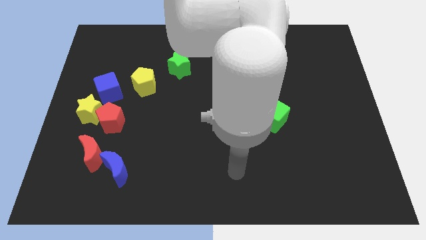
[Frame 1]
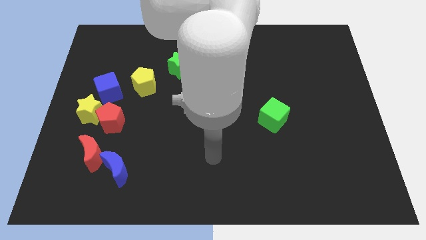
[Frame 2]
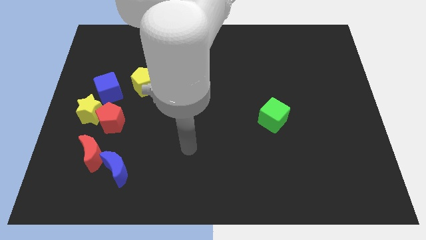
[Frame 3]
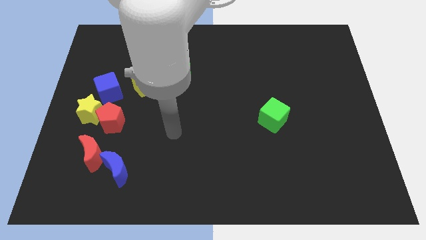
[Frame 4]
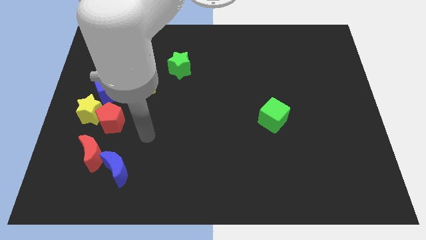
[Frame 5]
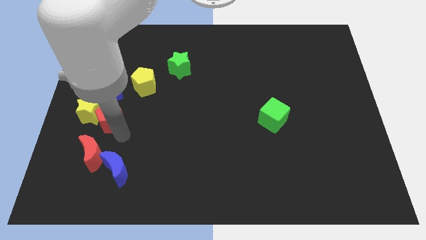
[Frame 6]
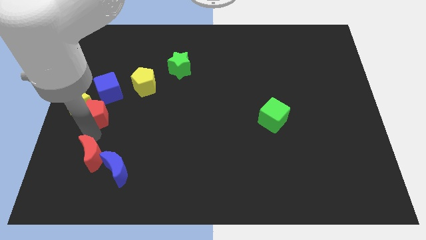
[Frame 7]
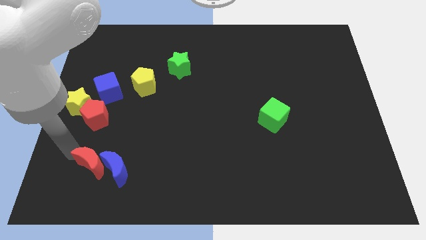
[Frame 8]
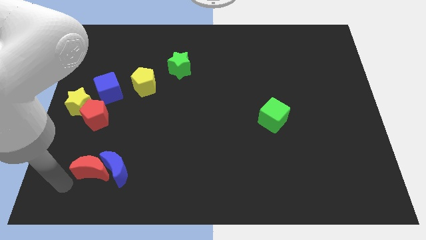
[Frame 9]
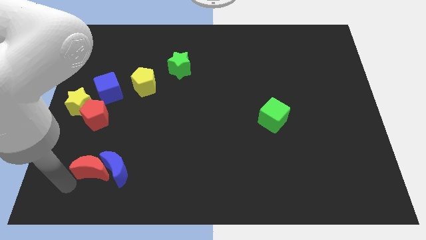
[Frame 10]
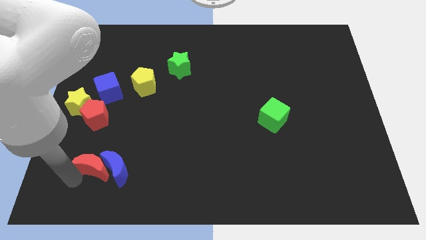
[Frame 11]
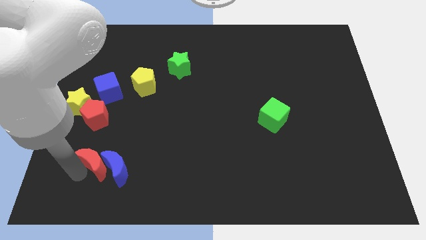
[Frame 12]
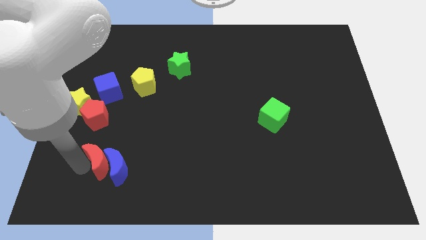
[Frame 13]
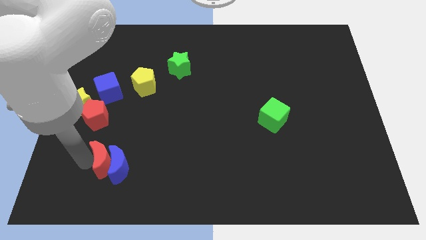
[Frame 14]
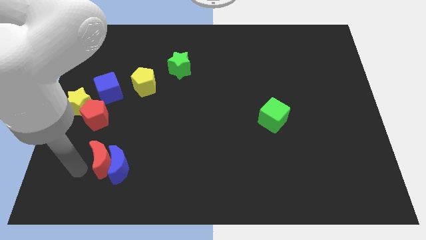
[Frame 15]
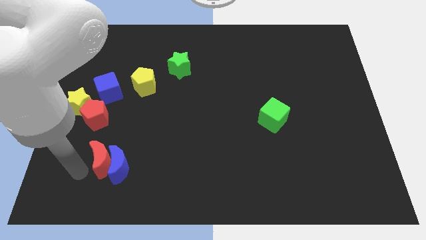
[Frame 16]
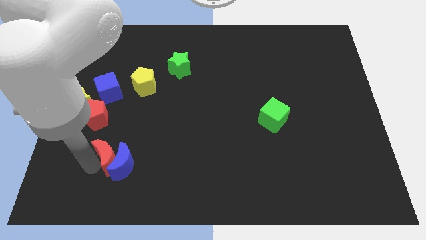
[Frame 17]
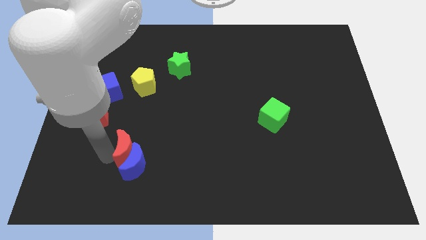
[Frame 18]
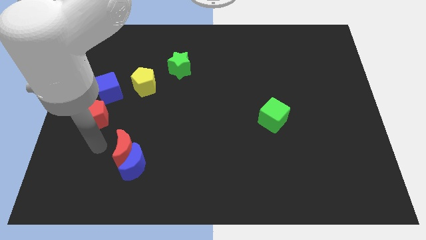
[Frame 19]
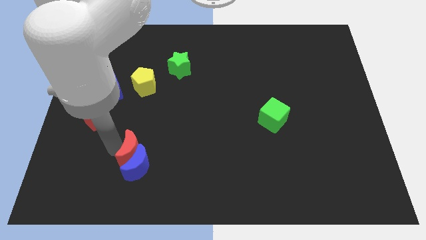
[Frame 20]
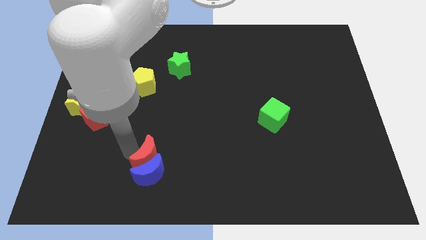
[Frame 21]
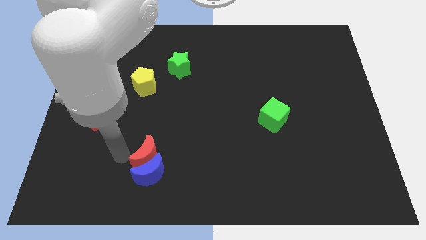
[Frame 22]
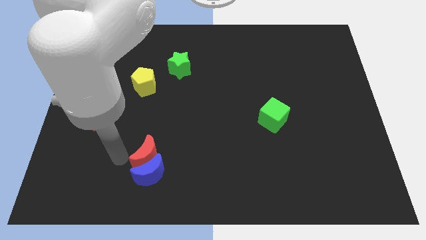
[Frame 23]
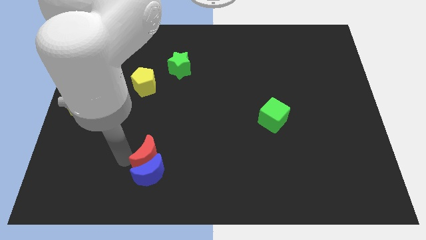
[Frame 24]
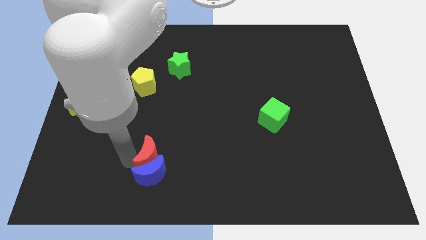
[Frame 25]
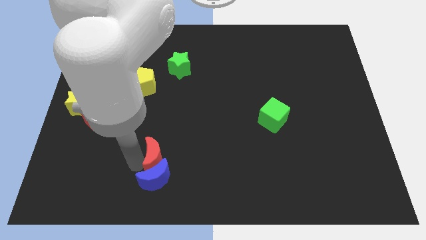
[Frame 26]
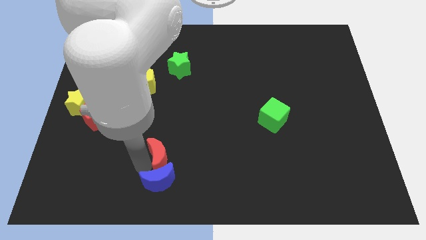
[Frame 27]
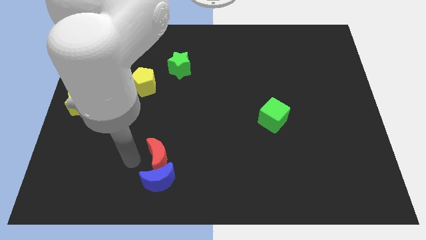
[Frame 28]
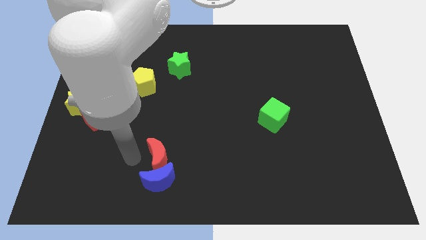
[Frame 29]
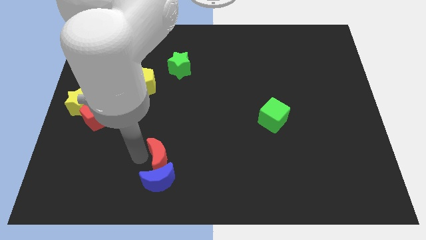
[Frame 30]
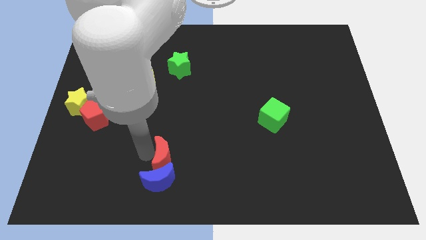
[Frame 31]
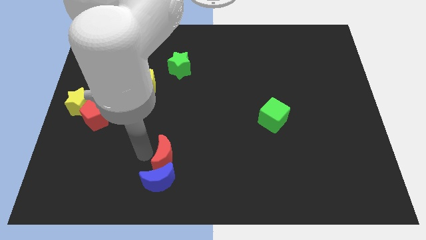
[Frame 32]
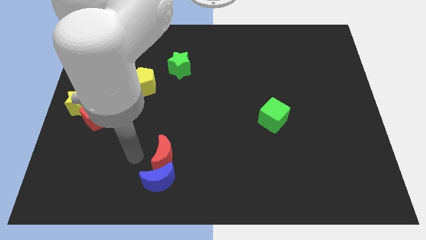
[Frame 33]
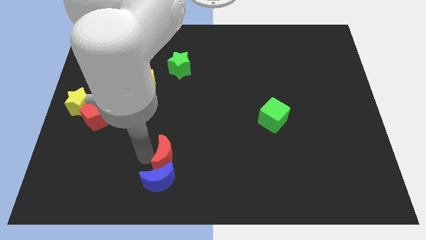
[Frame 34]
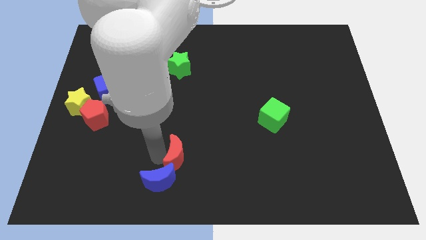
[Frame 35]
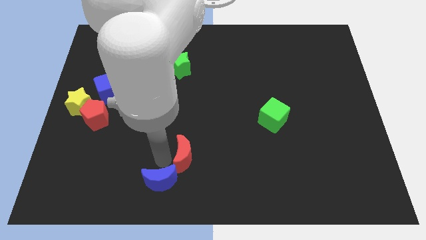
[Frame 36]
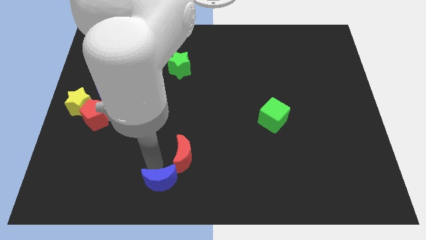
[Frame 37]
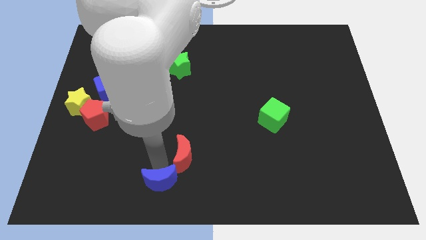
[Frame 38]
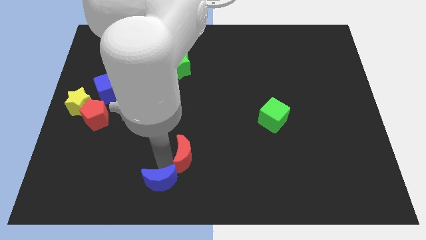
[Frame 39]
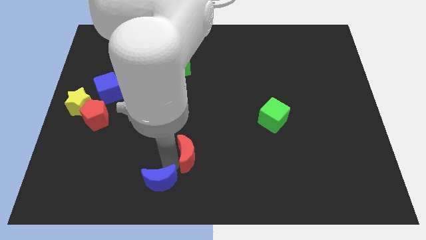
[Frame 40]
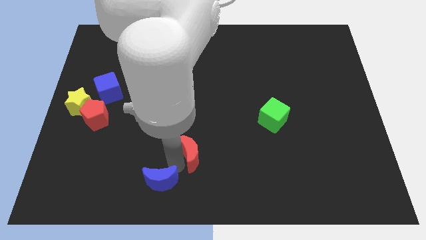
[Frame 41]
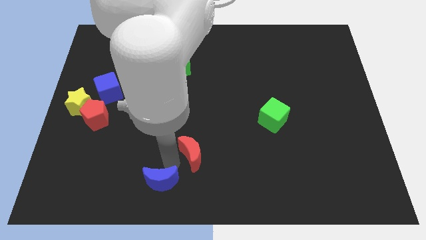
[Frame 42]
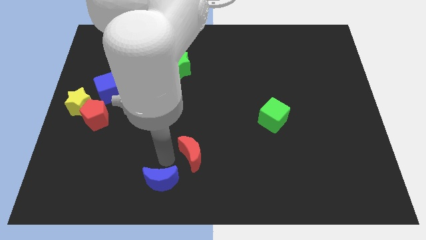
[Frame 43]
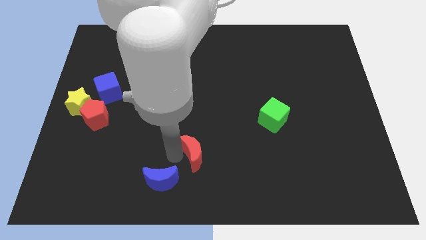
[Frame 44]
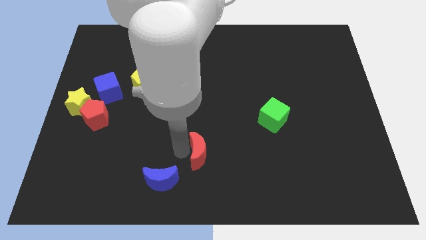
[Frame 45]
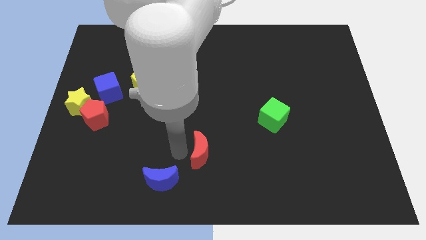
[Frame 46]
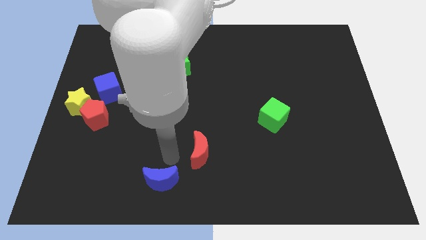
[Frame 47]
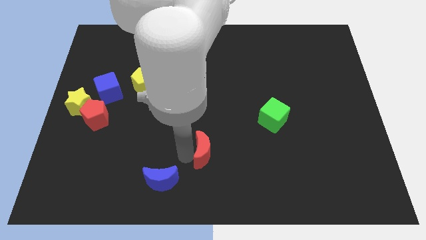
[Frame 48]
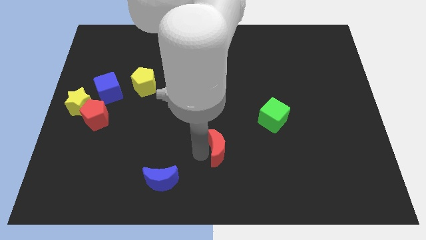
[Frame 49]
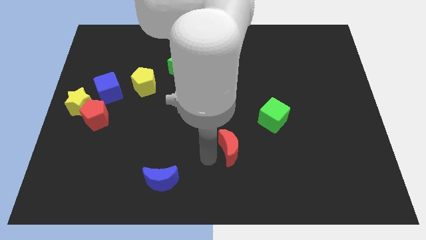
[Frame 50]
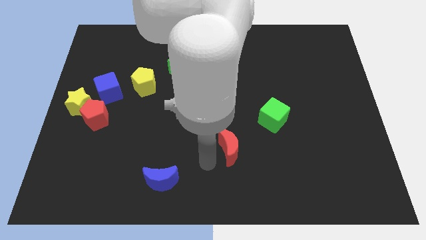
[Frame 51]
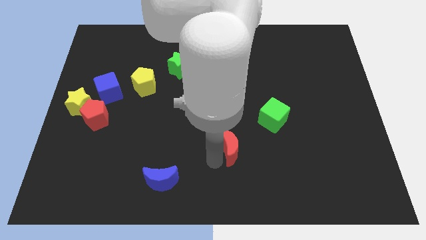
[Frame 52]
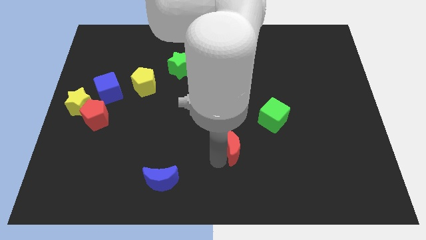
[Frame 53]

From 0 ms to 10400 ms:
move the red moon diagonally down and to the left of the green cube

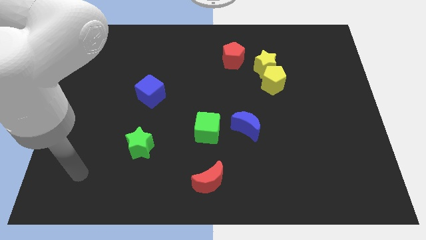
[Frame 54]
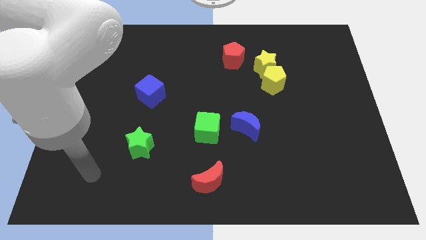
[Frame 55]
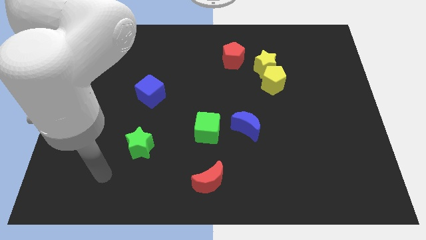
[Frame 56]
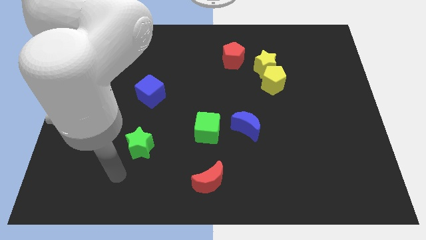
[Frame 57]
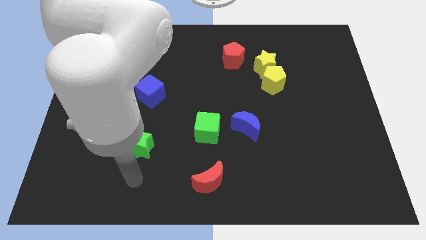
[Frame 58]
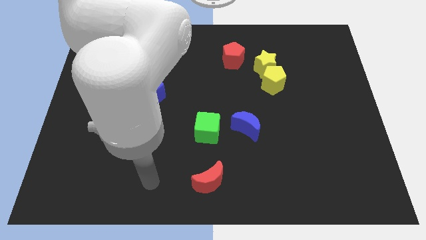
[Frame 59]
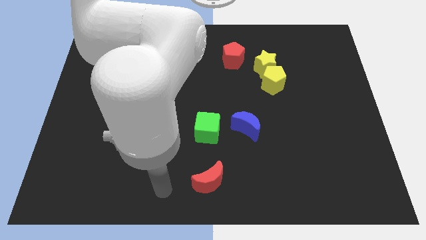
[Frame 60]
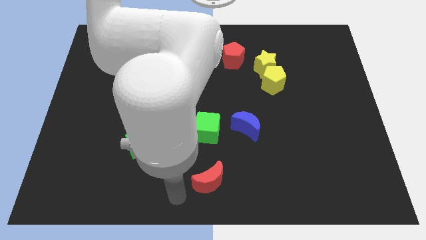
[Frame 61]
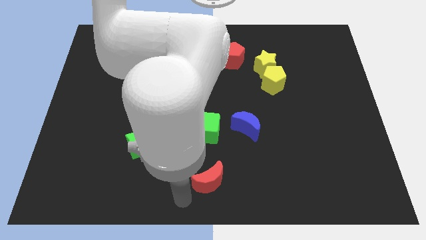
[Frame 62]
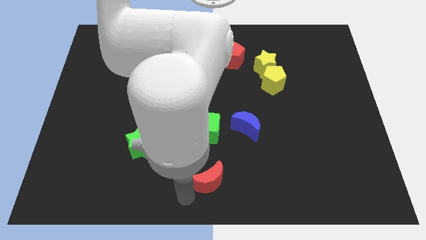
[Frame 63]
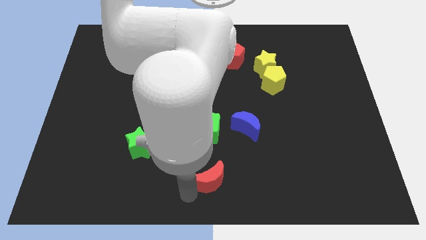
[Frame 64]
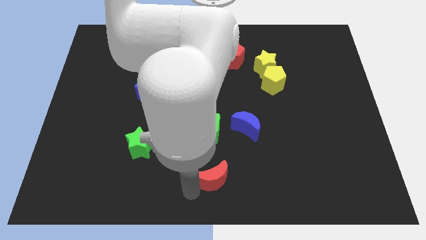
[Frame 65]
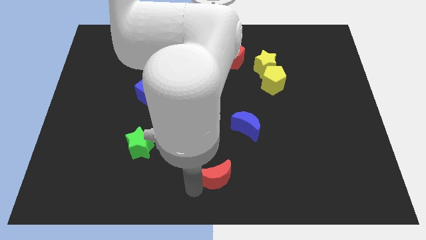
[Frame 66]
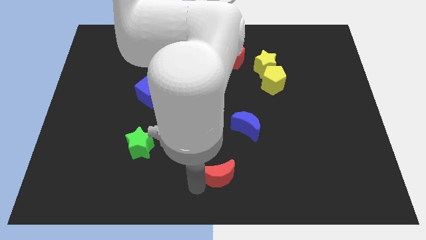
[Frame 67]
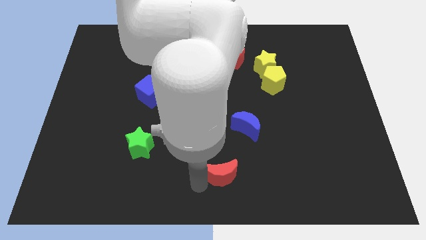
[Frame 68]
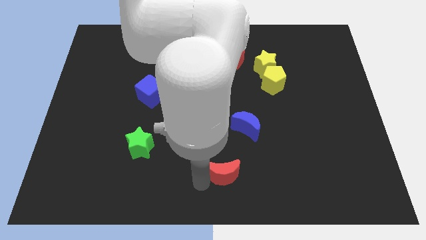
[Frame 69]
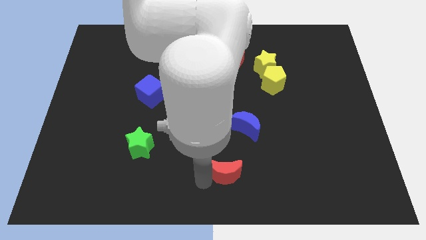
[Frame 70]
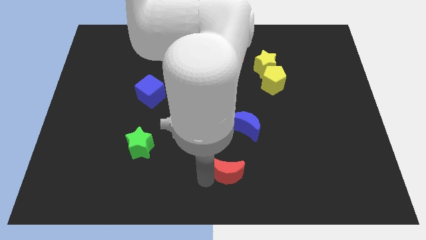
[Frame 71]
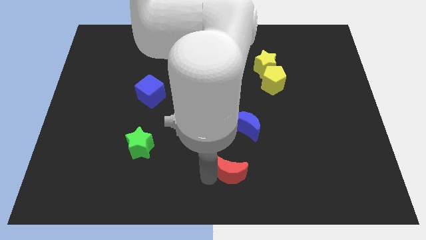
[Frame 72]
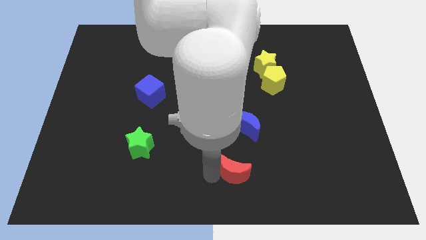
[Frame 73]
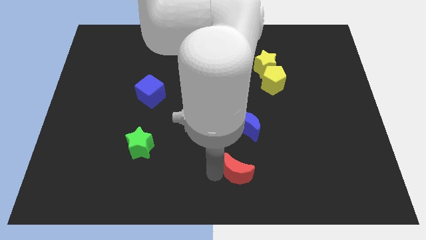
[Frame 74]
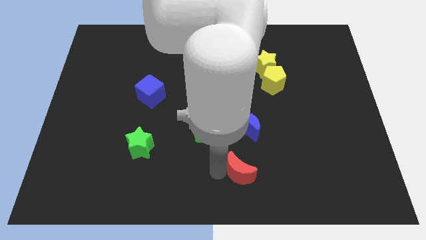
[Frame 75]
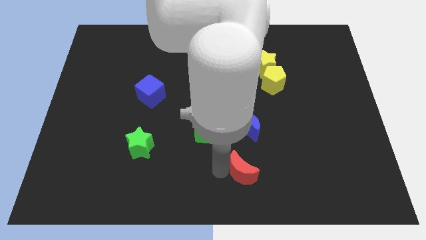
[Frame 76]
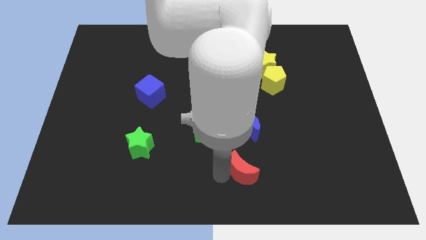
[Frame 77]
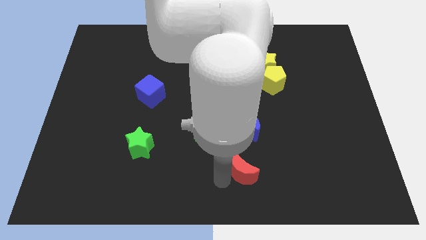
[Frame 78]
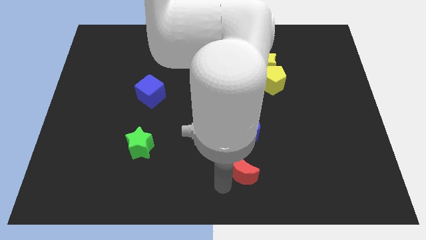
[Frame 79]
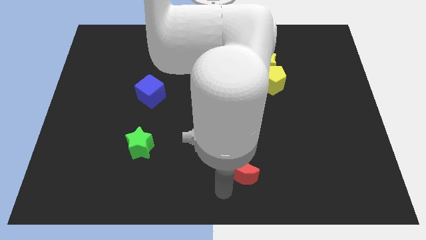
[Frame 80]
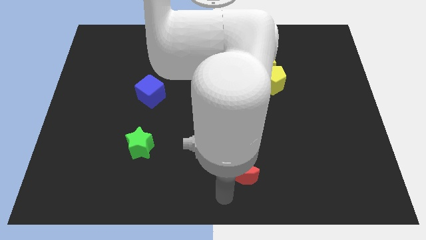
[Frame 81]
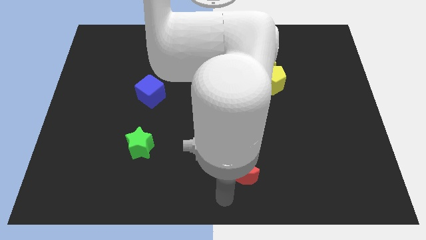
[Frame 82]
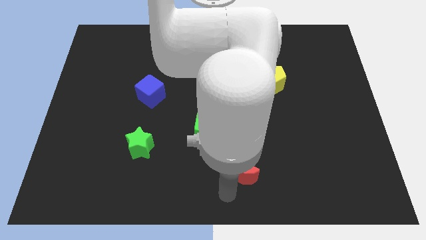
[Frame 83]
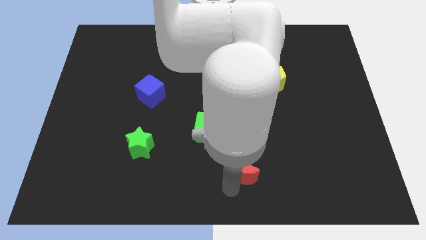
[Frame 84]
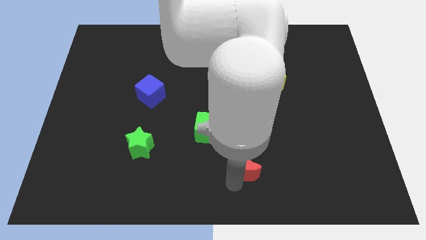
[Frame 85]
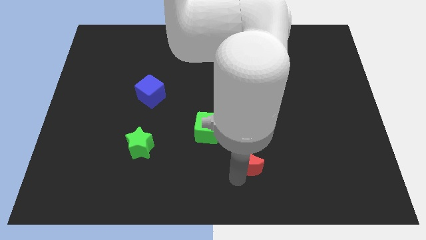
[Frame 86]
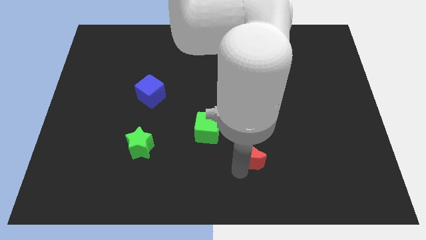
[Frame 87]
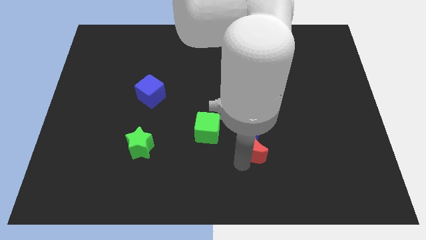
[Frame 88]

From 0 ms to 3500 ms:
push the red moon to the bottom right side of the blue moon
